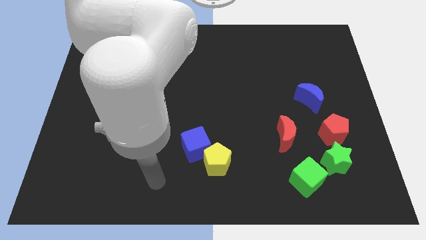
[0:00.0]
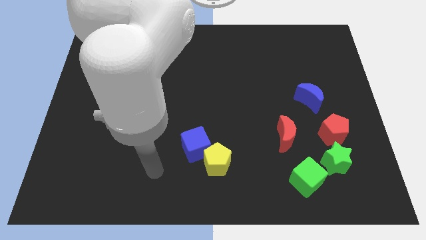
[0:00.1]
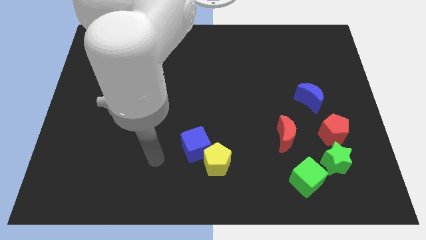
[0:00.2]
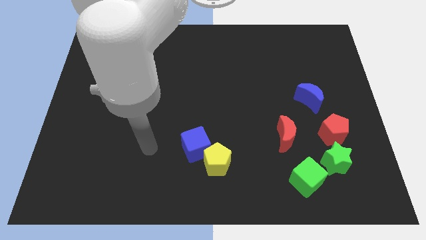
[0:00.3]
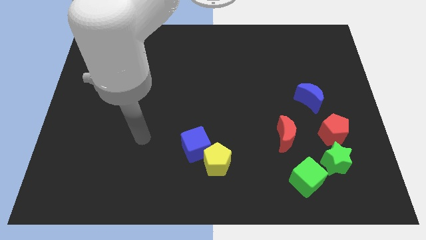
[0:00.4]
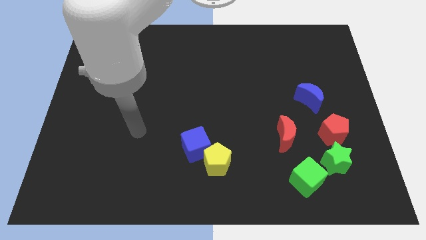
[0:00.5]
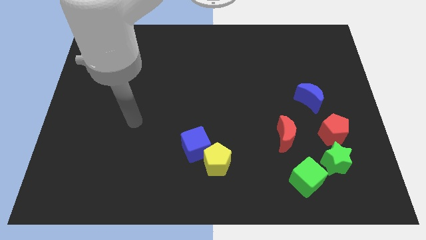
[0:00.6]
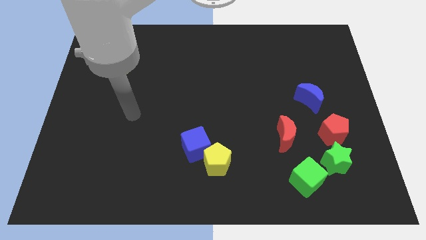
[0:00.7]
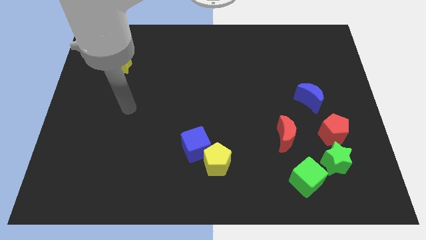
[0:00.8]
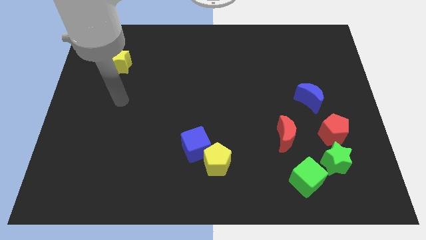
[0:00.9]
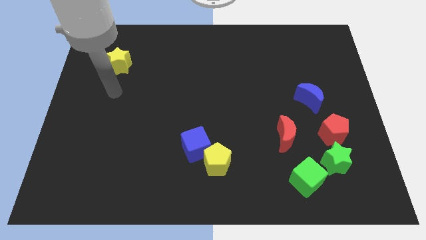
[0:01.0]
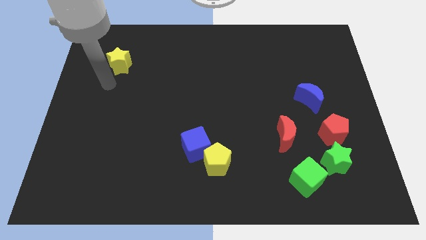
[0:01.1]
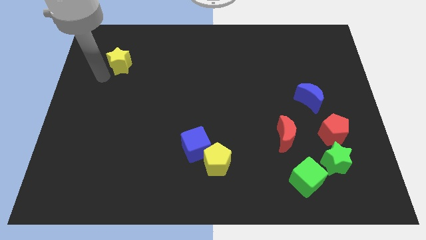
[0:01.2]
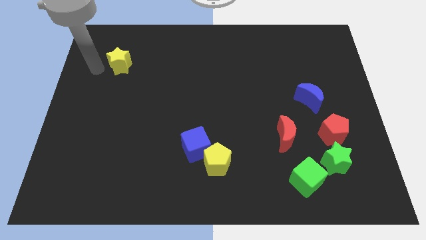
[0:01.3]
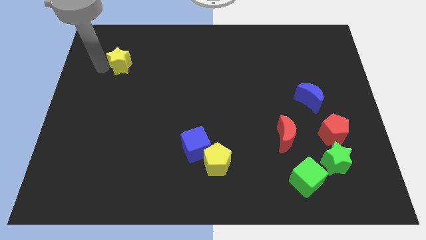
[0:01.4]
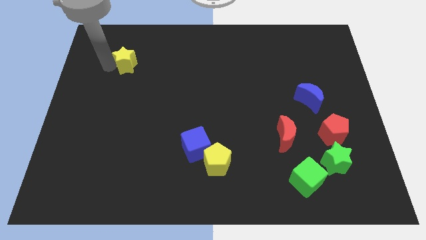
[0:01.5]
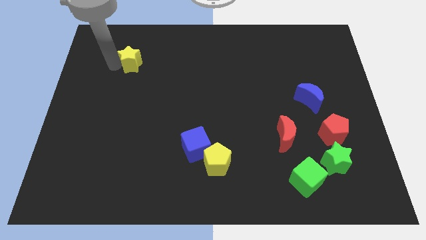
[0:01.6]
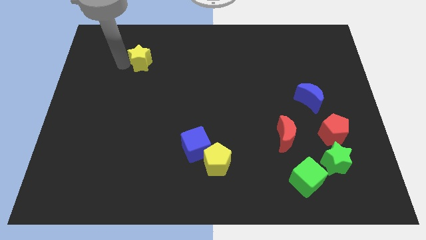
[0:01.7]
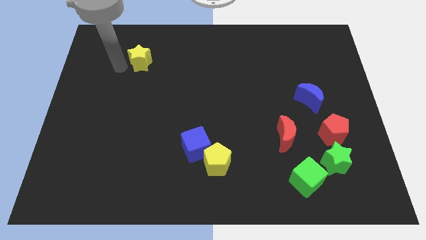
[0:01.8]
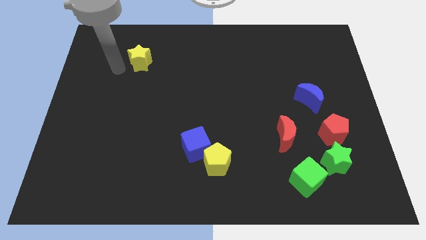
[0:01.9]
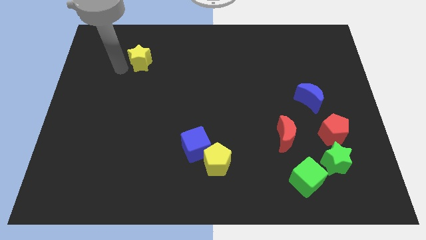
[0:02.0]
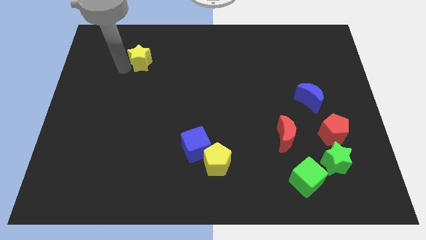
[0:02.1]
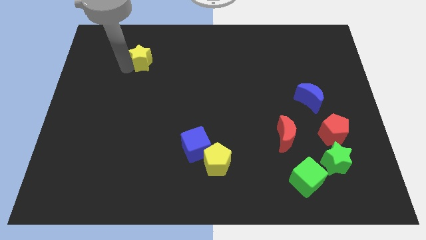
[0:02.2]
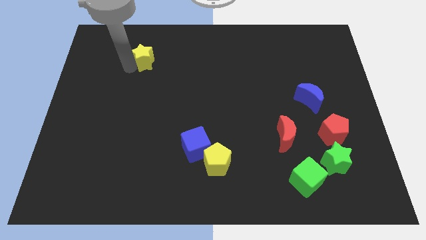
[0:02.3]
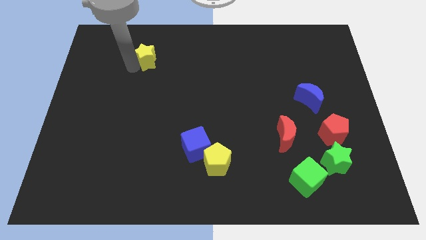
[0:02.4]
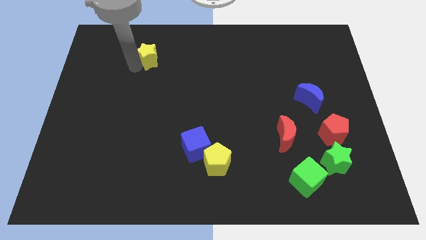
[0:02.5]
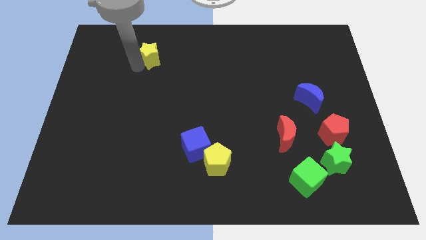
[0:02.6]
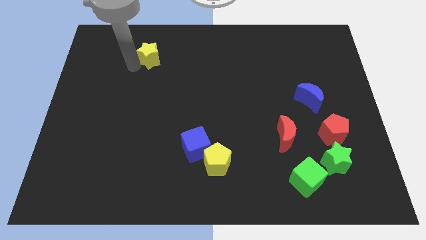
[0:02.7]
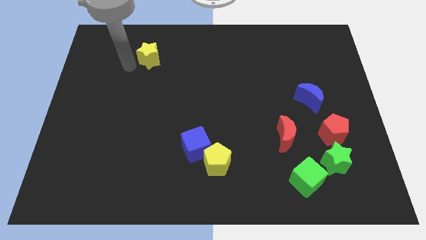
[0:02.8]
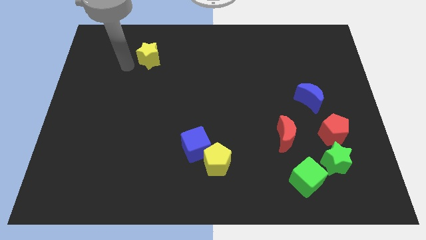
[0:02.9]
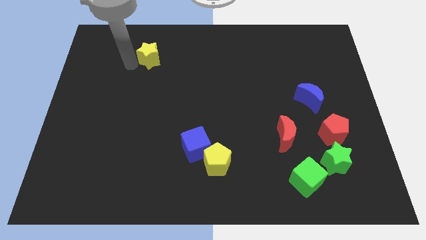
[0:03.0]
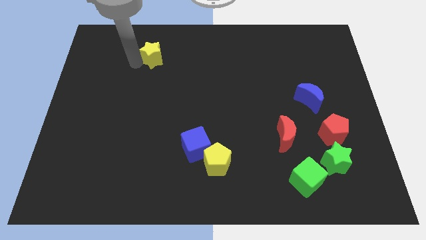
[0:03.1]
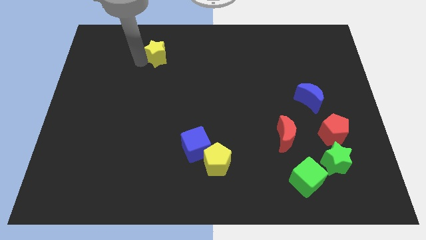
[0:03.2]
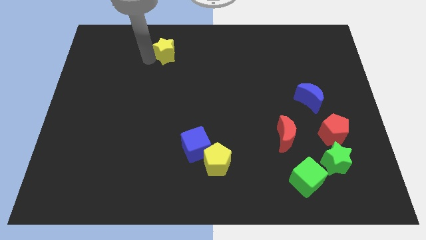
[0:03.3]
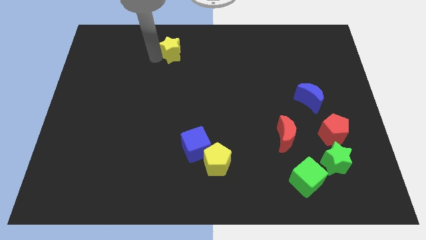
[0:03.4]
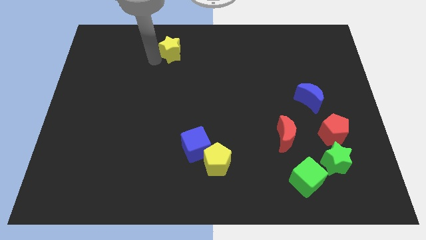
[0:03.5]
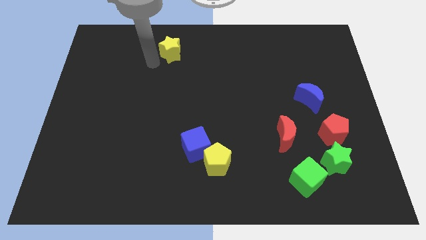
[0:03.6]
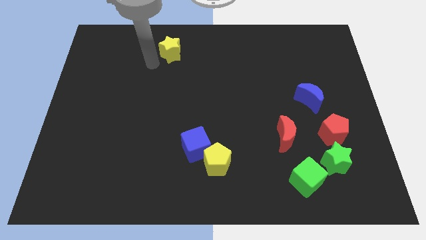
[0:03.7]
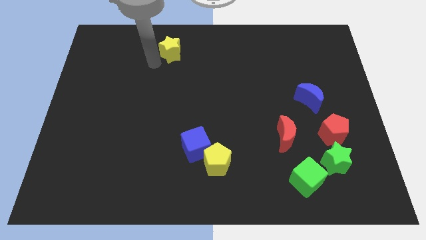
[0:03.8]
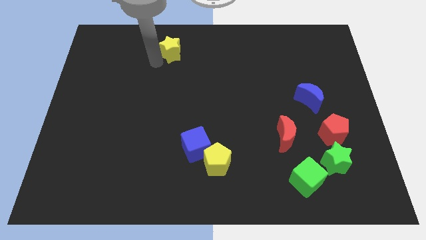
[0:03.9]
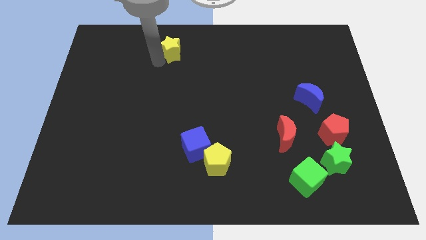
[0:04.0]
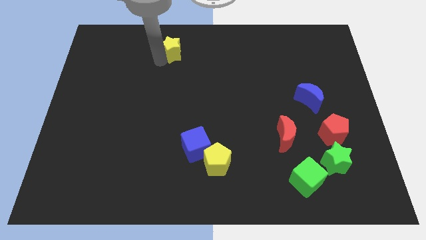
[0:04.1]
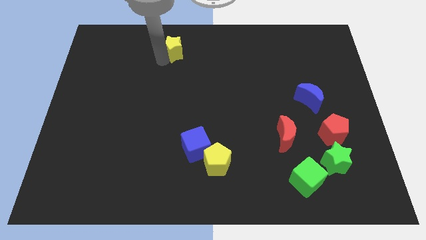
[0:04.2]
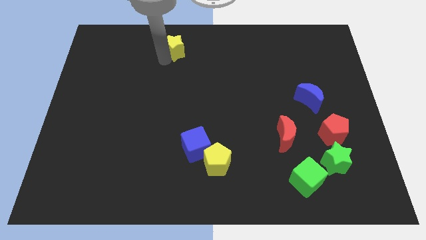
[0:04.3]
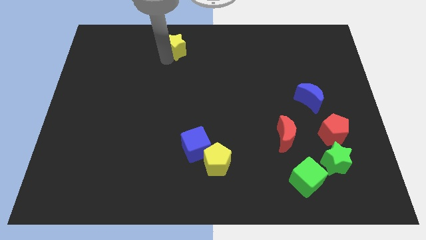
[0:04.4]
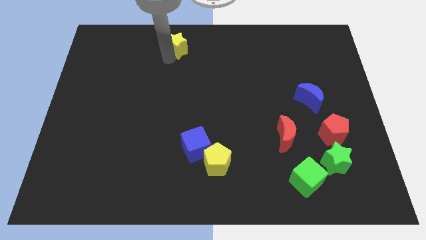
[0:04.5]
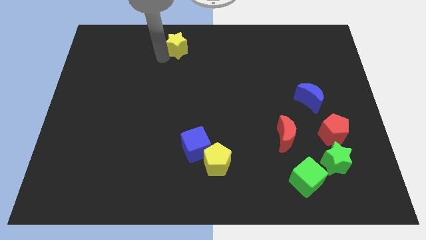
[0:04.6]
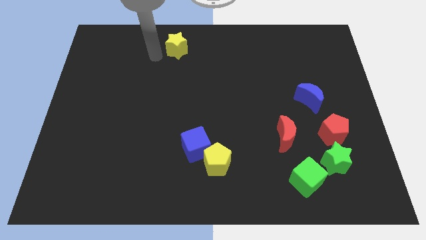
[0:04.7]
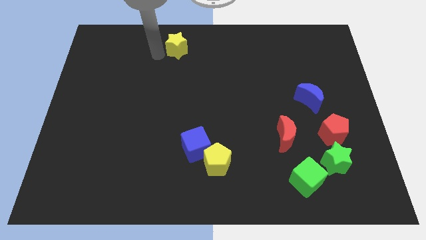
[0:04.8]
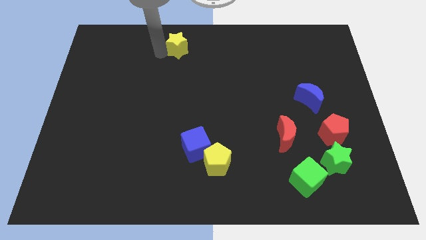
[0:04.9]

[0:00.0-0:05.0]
push the yellow star to the top

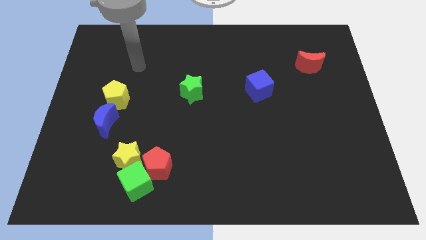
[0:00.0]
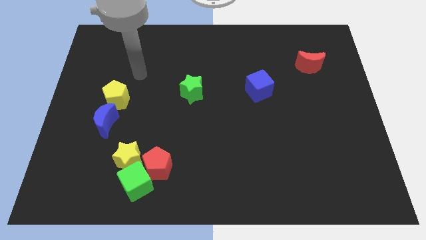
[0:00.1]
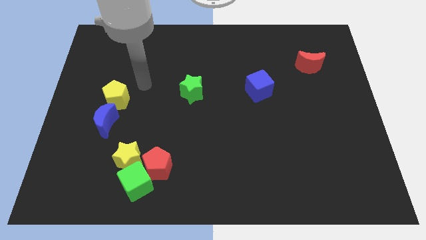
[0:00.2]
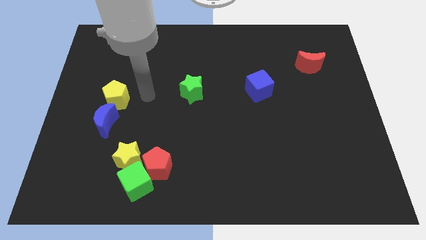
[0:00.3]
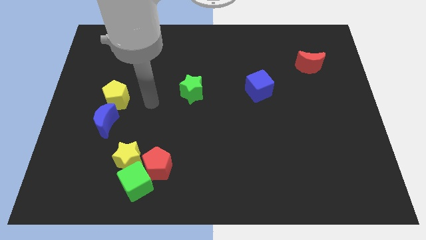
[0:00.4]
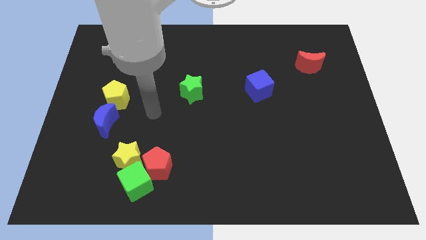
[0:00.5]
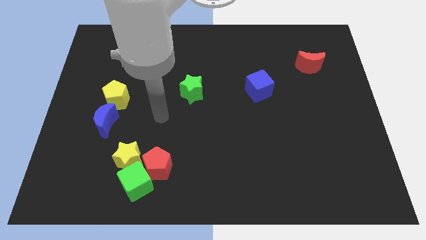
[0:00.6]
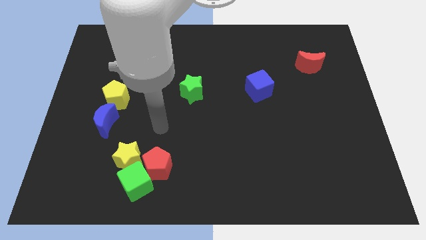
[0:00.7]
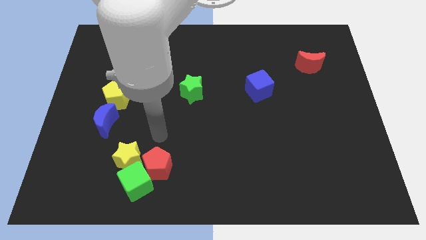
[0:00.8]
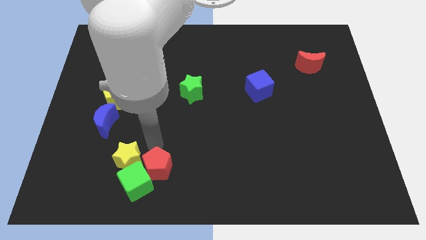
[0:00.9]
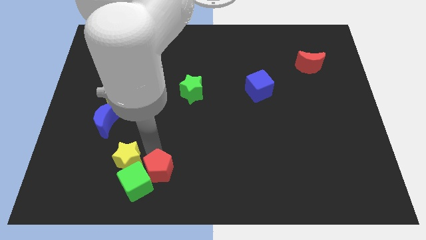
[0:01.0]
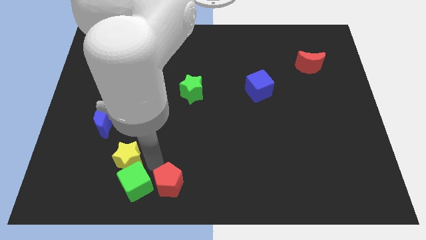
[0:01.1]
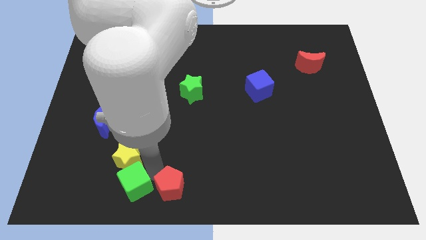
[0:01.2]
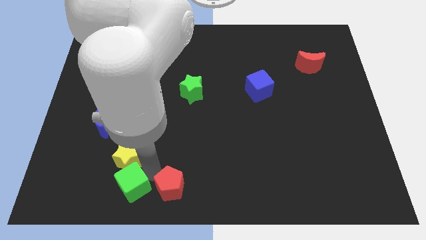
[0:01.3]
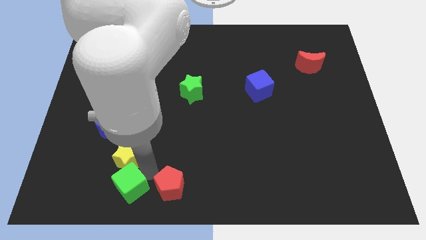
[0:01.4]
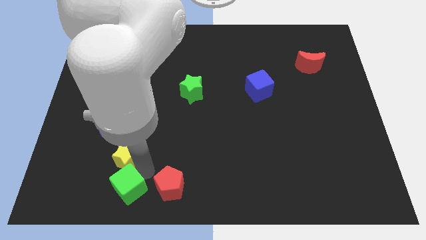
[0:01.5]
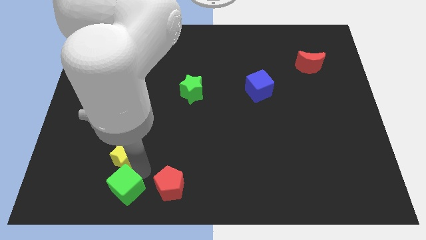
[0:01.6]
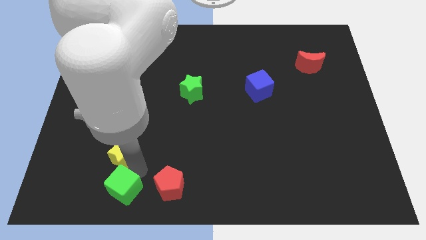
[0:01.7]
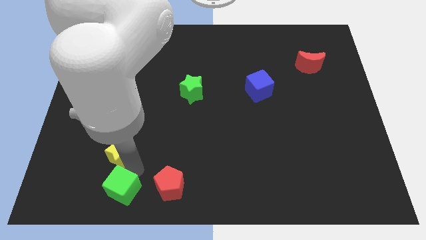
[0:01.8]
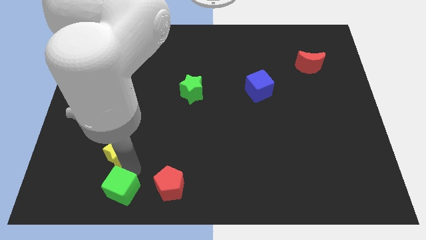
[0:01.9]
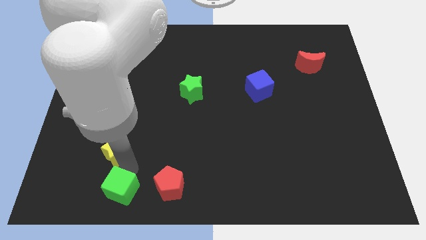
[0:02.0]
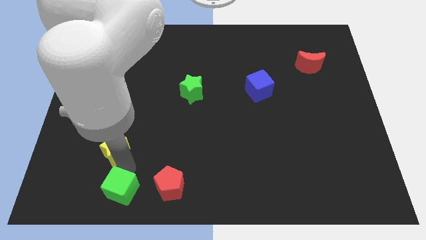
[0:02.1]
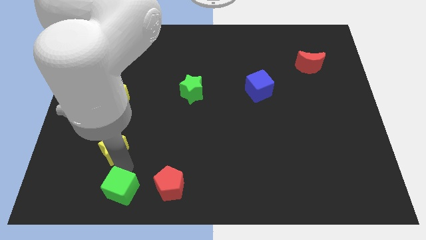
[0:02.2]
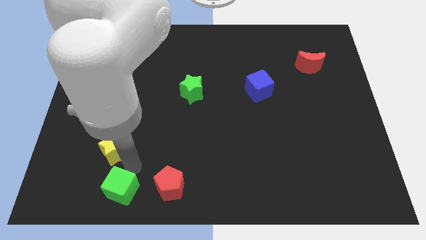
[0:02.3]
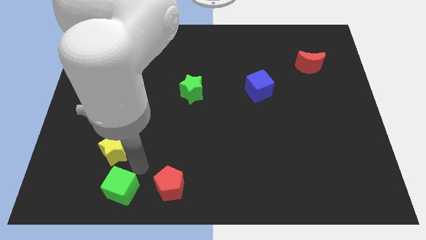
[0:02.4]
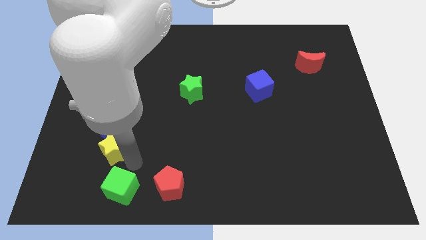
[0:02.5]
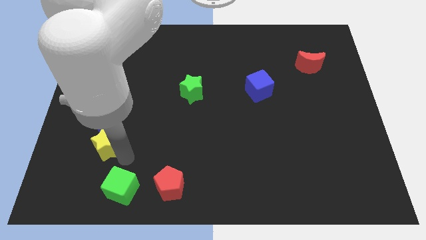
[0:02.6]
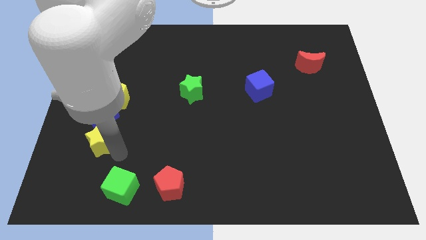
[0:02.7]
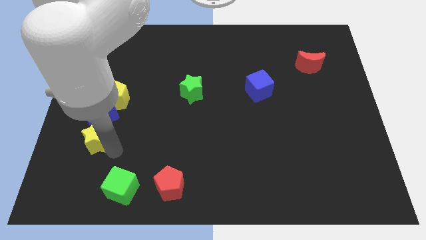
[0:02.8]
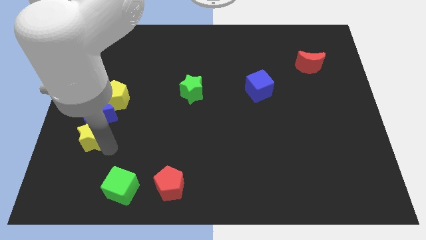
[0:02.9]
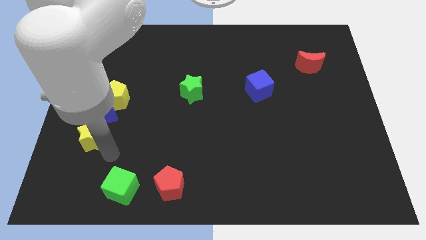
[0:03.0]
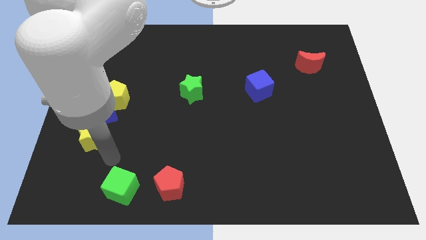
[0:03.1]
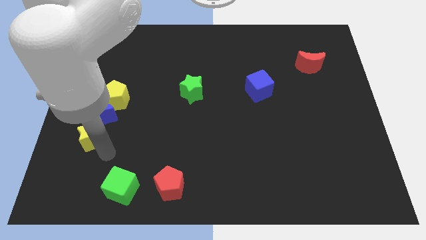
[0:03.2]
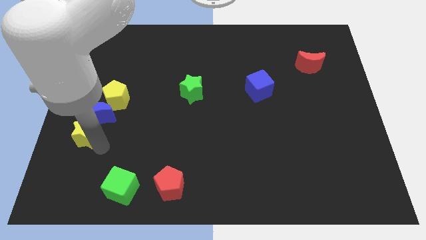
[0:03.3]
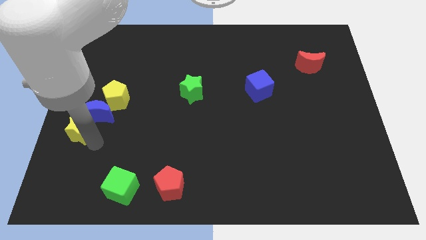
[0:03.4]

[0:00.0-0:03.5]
put the yellow star to the left side
